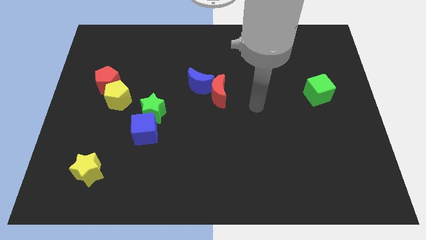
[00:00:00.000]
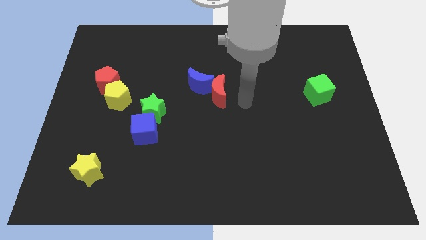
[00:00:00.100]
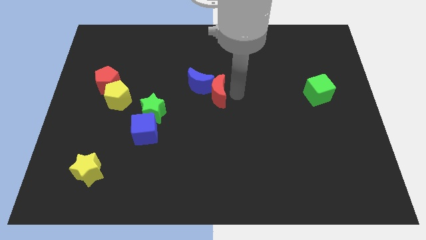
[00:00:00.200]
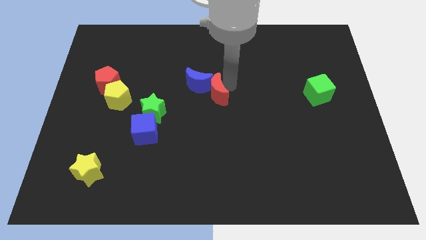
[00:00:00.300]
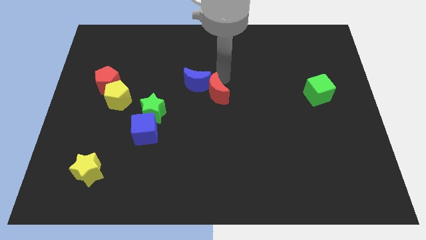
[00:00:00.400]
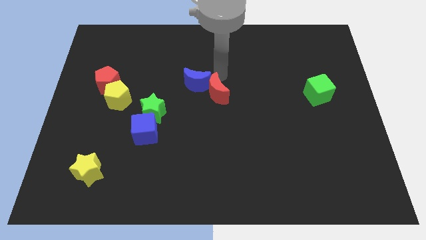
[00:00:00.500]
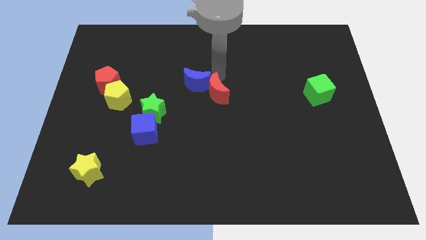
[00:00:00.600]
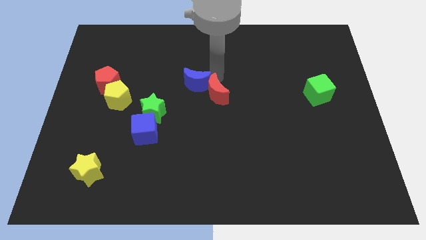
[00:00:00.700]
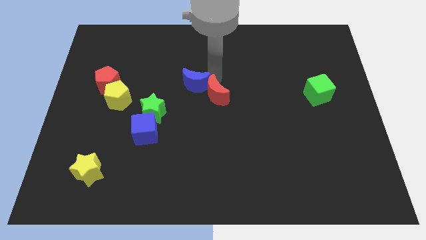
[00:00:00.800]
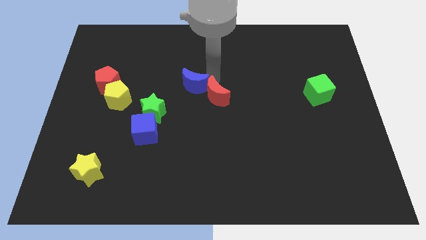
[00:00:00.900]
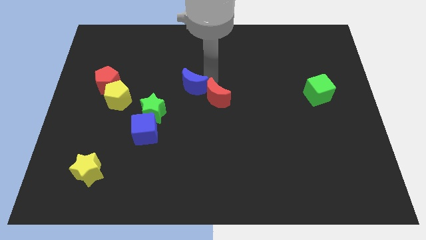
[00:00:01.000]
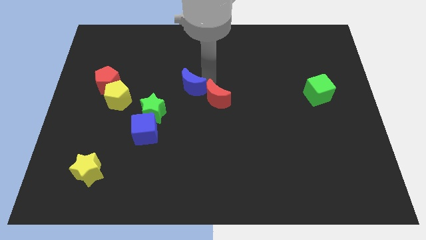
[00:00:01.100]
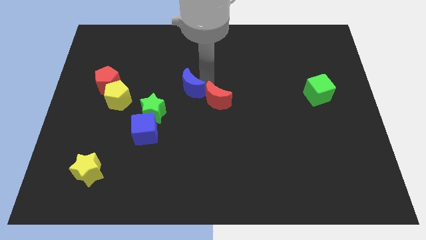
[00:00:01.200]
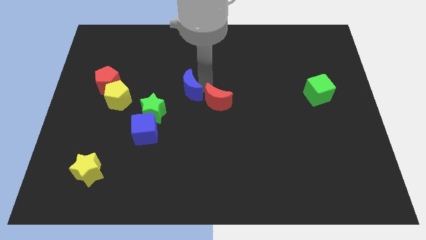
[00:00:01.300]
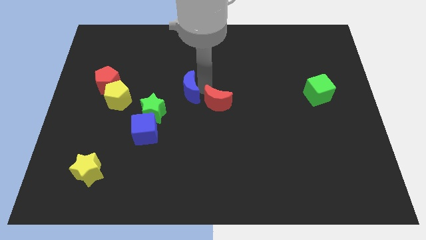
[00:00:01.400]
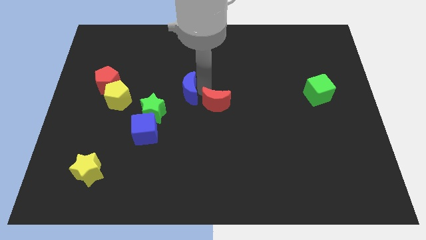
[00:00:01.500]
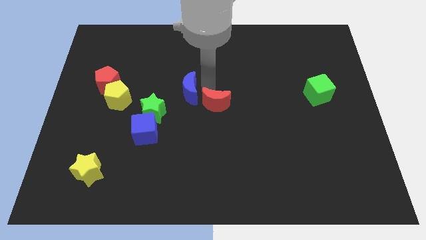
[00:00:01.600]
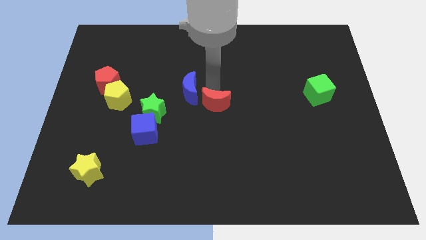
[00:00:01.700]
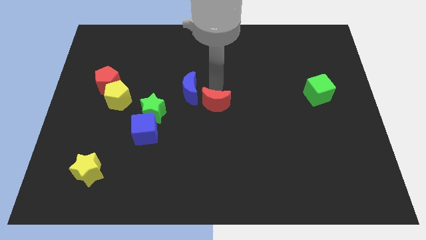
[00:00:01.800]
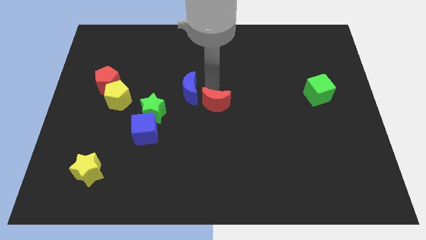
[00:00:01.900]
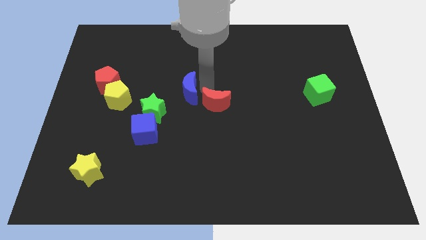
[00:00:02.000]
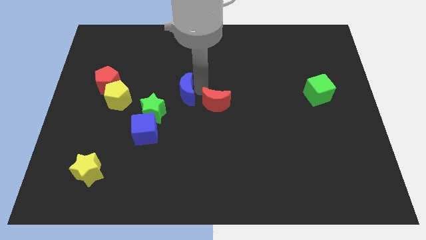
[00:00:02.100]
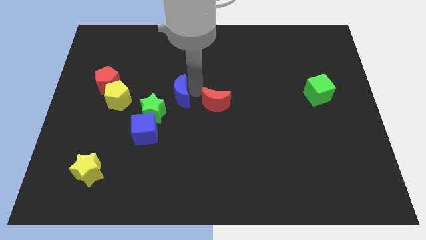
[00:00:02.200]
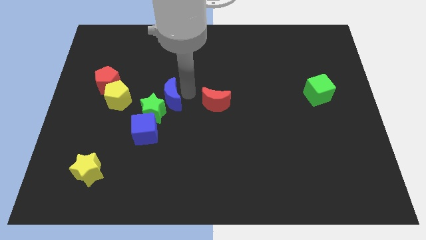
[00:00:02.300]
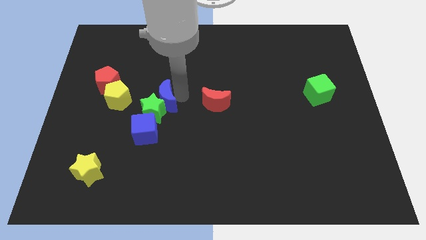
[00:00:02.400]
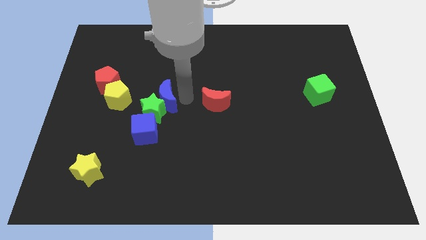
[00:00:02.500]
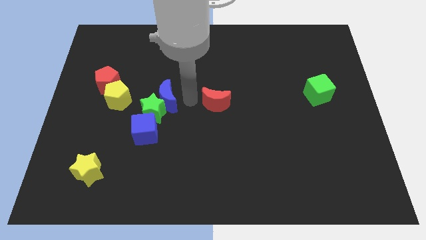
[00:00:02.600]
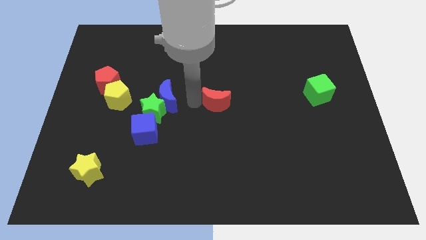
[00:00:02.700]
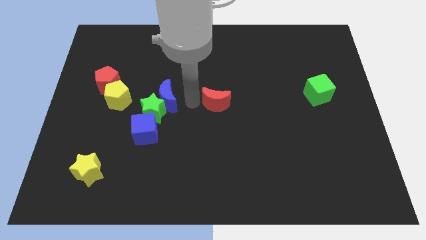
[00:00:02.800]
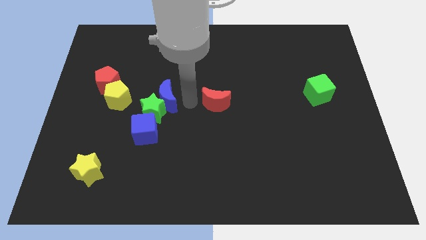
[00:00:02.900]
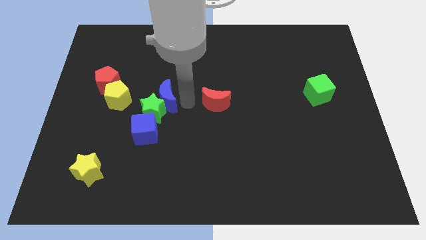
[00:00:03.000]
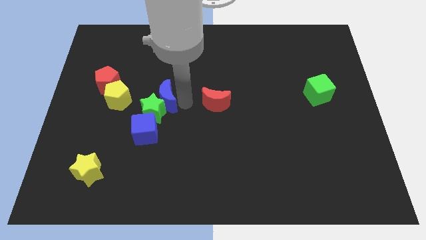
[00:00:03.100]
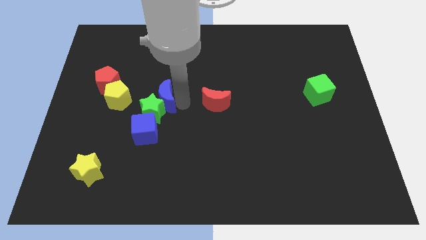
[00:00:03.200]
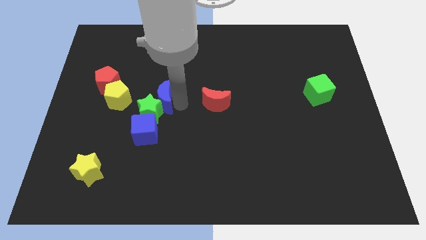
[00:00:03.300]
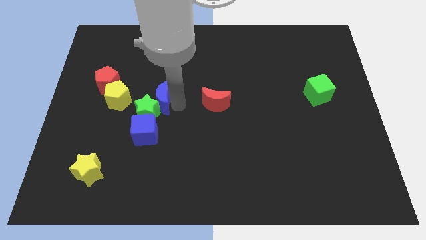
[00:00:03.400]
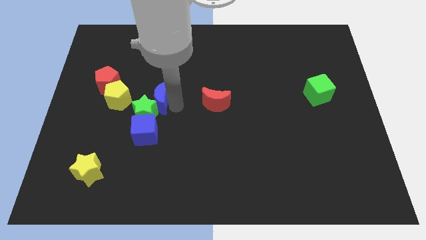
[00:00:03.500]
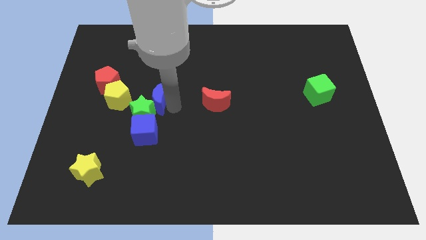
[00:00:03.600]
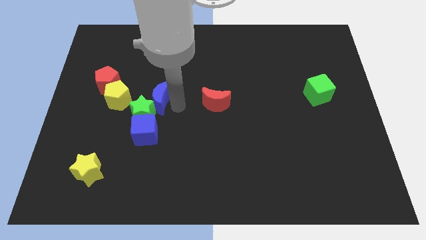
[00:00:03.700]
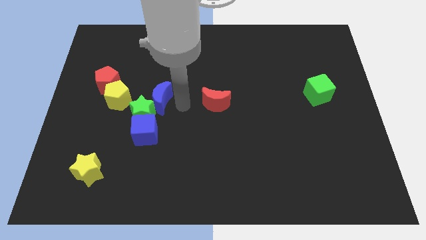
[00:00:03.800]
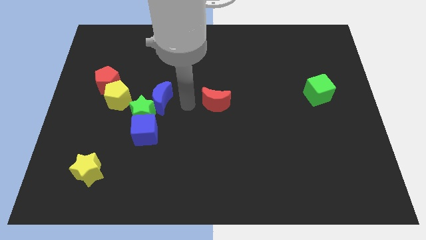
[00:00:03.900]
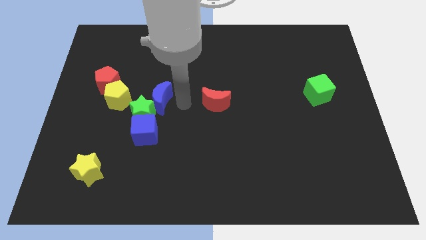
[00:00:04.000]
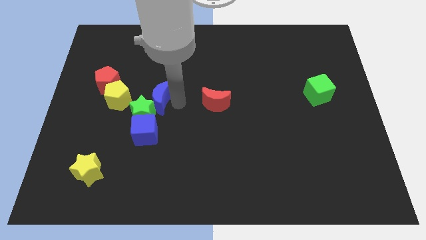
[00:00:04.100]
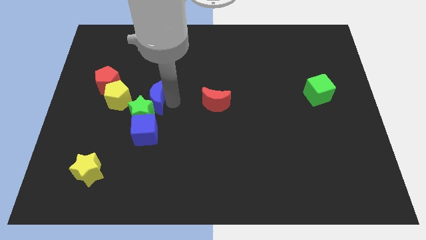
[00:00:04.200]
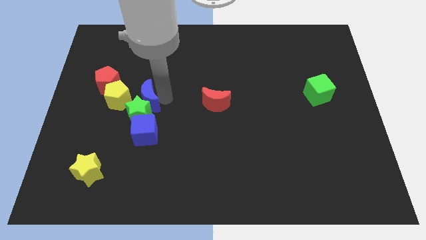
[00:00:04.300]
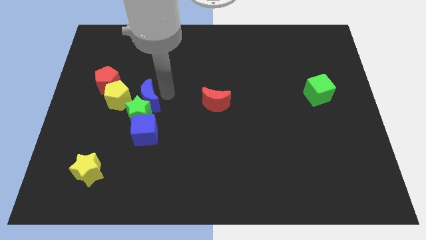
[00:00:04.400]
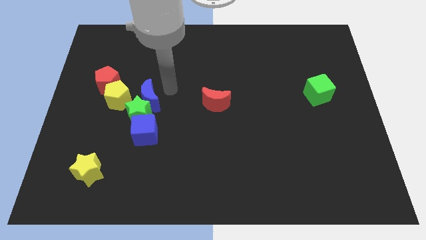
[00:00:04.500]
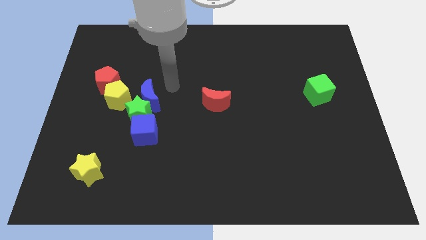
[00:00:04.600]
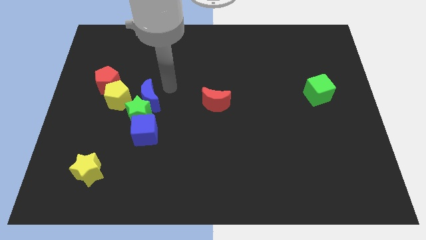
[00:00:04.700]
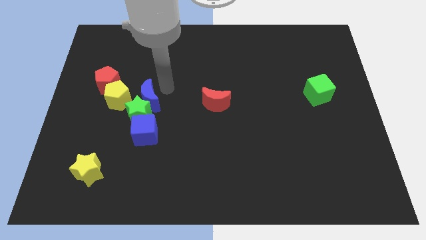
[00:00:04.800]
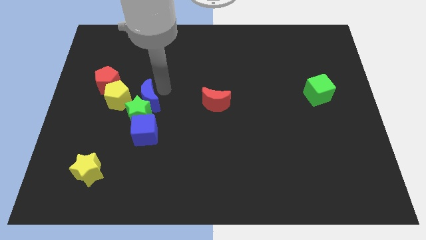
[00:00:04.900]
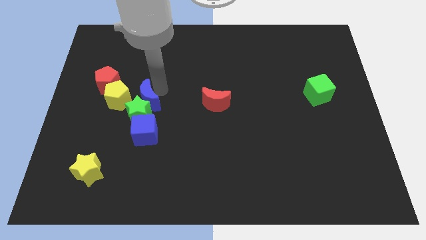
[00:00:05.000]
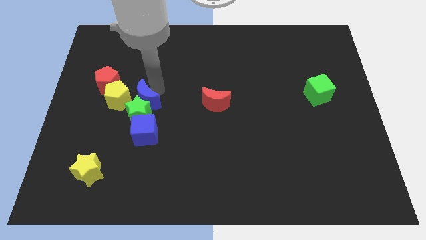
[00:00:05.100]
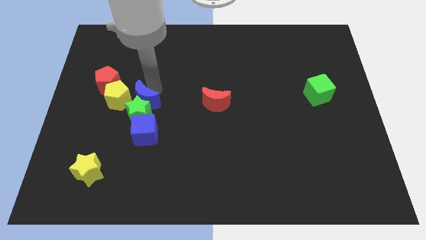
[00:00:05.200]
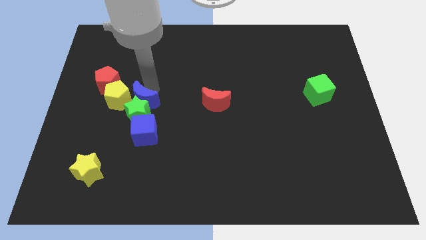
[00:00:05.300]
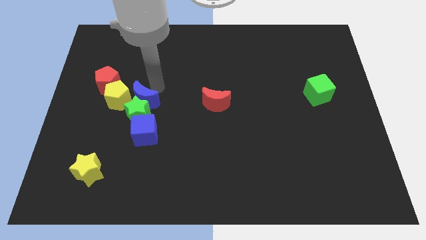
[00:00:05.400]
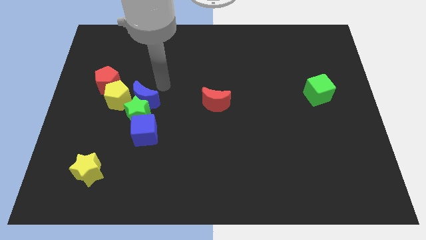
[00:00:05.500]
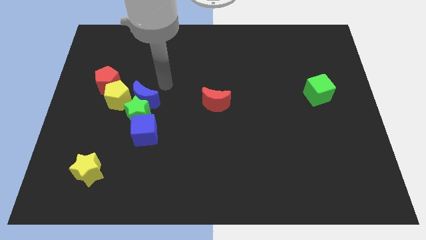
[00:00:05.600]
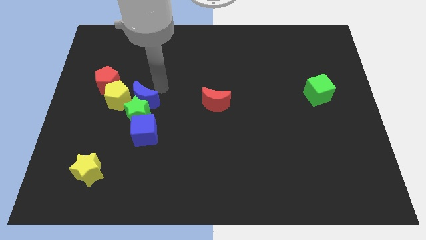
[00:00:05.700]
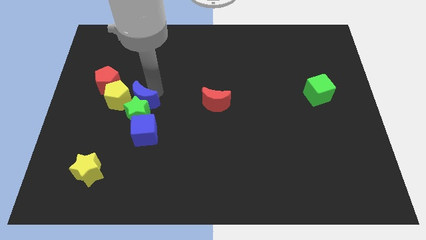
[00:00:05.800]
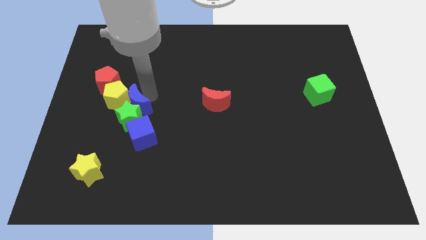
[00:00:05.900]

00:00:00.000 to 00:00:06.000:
put the blue moon to the top left of the blue cube
